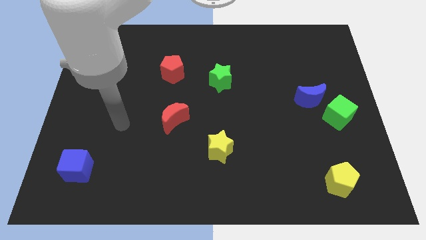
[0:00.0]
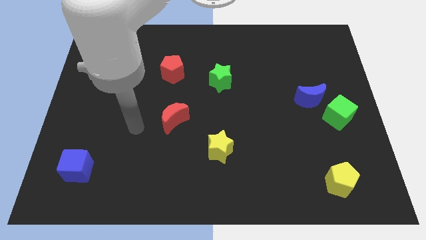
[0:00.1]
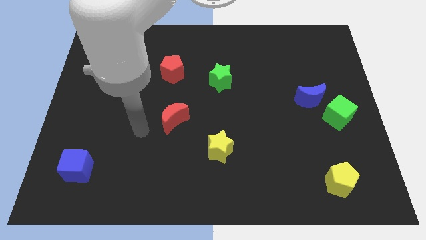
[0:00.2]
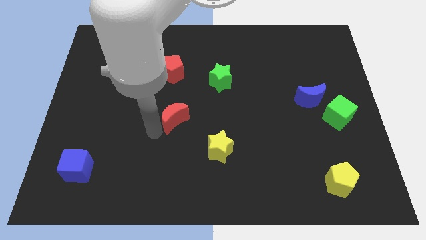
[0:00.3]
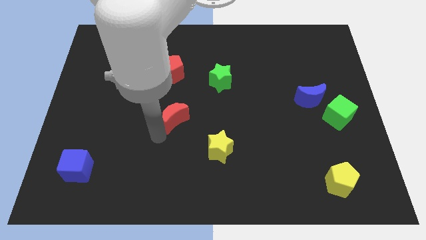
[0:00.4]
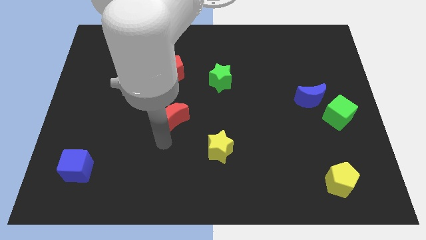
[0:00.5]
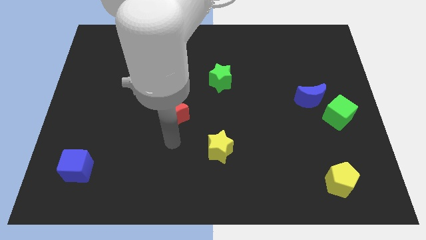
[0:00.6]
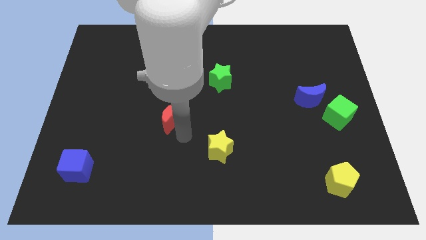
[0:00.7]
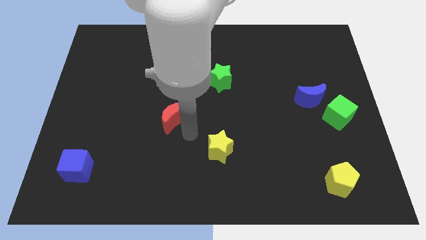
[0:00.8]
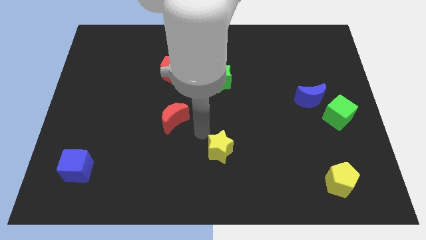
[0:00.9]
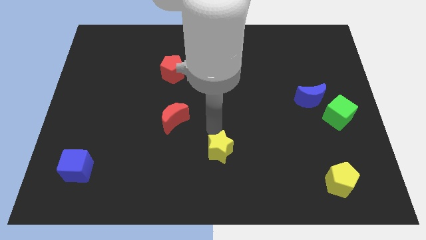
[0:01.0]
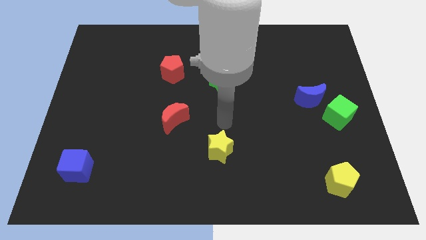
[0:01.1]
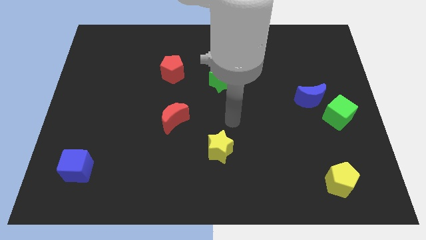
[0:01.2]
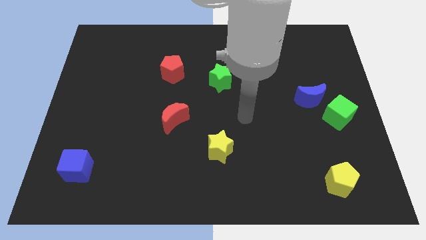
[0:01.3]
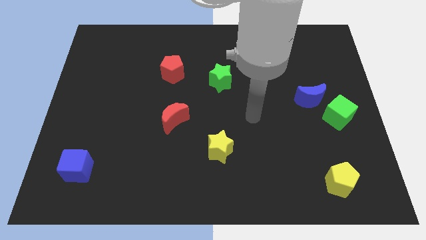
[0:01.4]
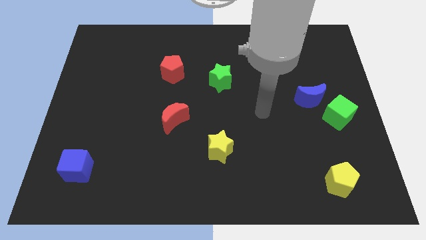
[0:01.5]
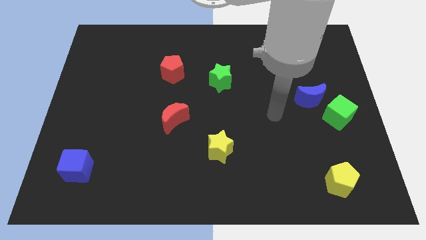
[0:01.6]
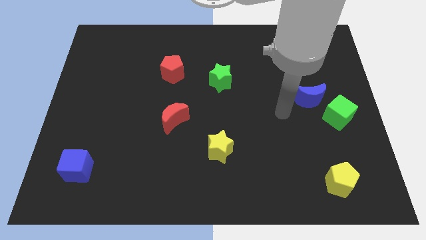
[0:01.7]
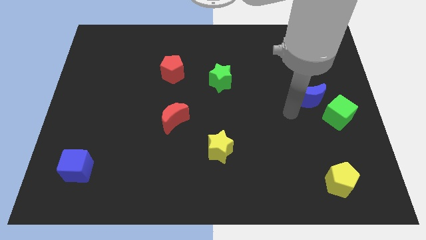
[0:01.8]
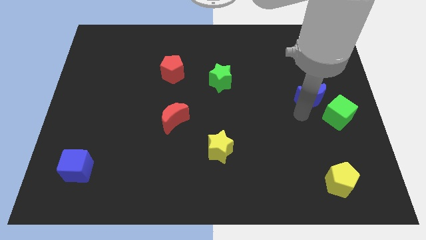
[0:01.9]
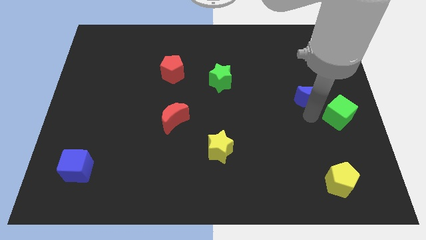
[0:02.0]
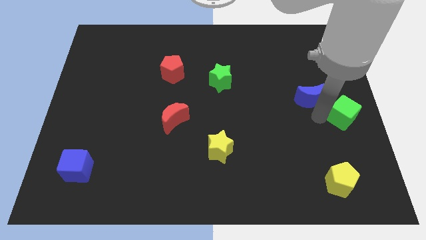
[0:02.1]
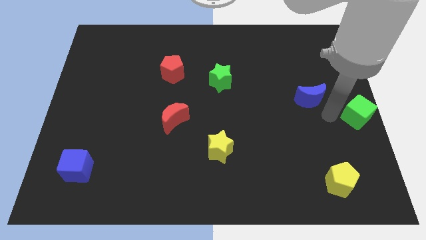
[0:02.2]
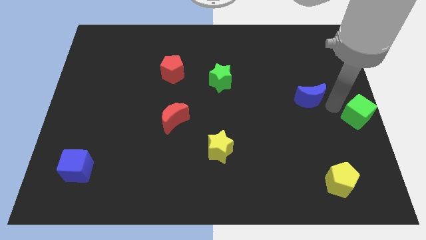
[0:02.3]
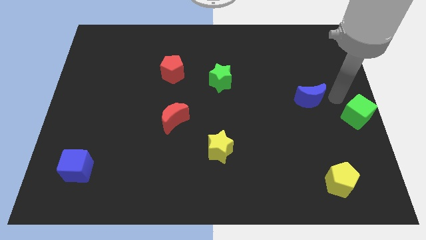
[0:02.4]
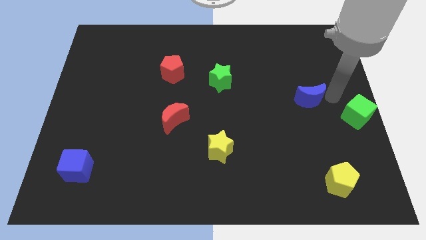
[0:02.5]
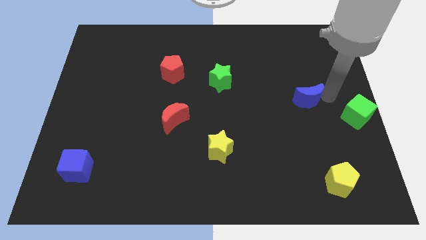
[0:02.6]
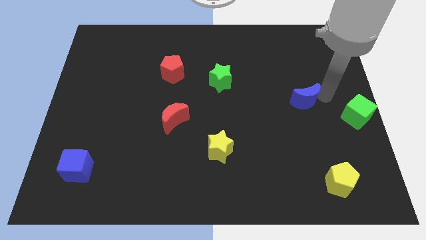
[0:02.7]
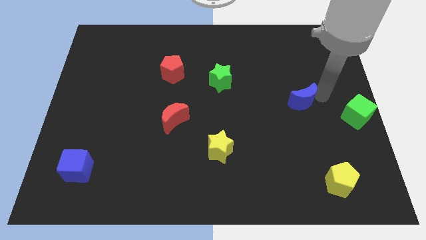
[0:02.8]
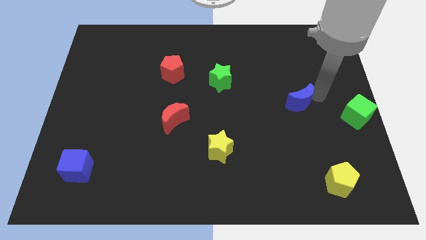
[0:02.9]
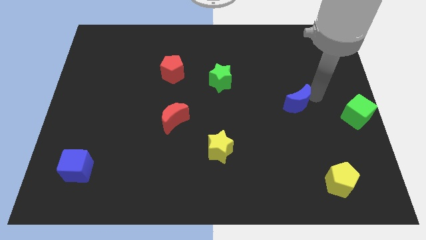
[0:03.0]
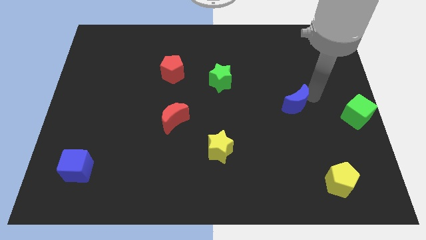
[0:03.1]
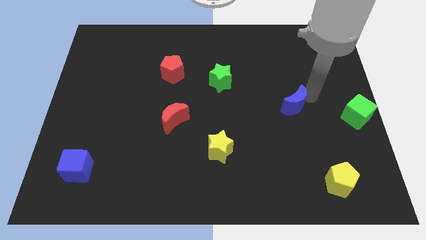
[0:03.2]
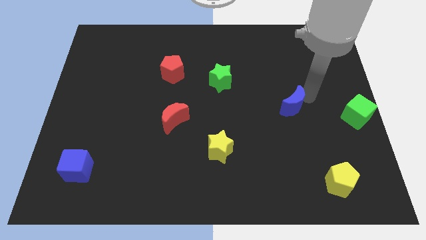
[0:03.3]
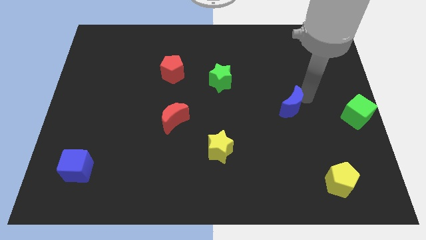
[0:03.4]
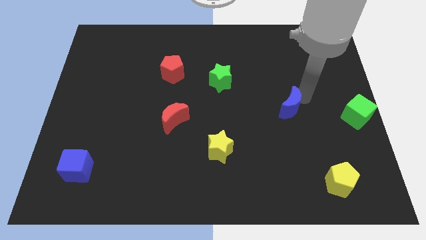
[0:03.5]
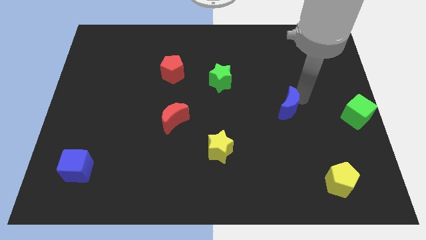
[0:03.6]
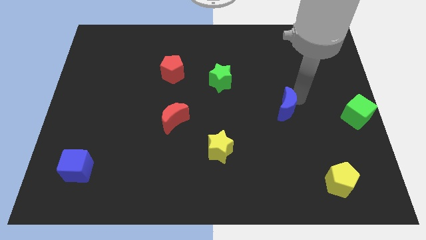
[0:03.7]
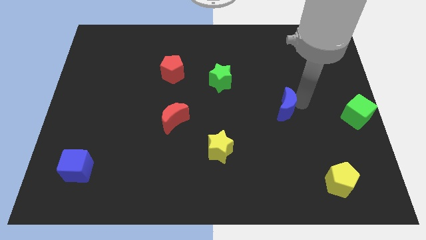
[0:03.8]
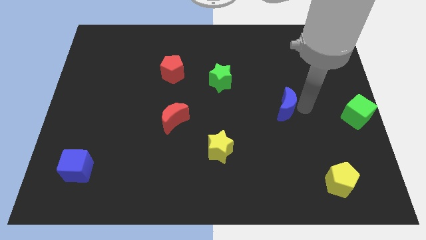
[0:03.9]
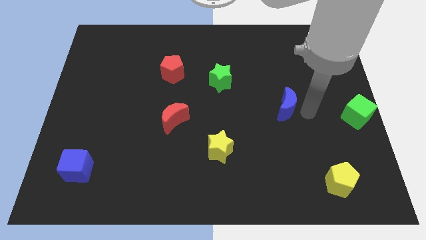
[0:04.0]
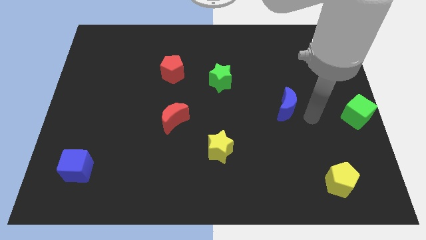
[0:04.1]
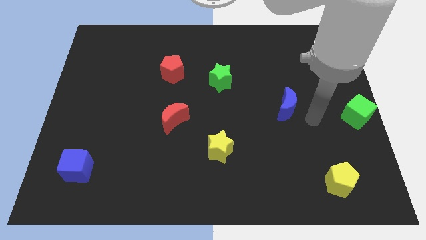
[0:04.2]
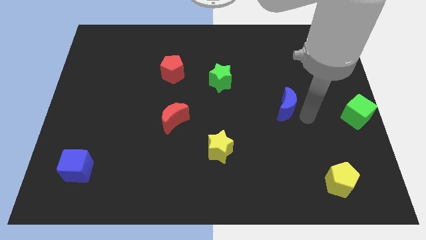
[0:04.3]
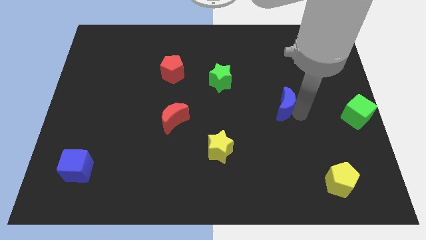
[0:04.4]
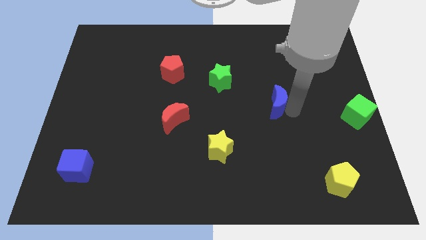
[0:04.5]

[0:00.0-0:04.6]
push the blue moon to the left a little

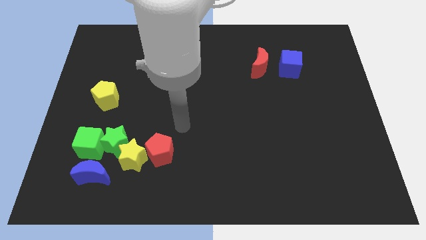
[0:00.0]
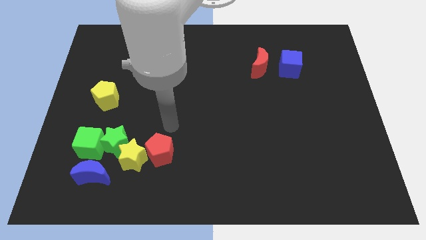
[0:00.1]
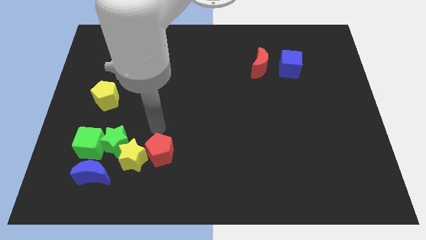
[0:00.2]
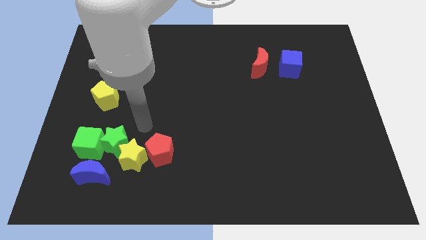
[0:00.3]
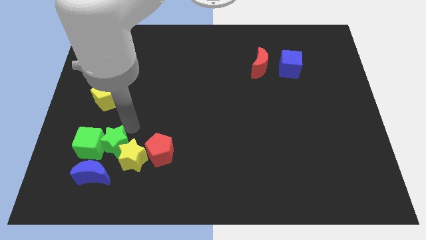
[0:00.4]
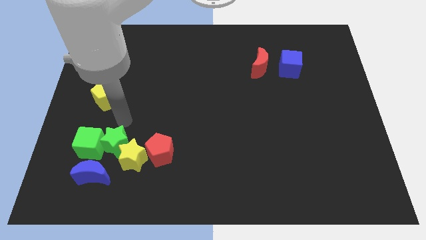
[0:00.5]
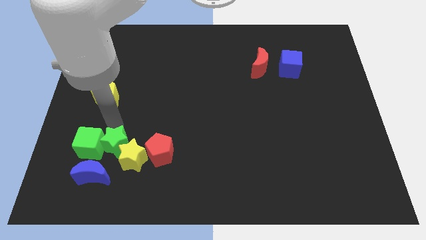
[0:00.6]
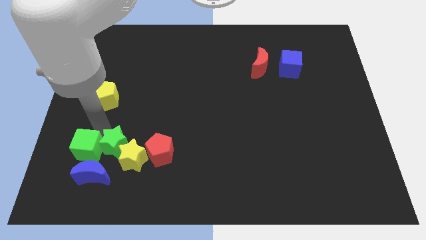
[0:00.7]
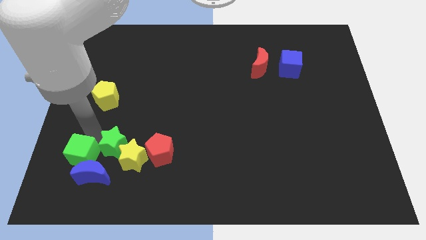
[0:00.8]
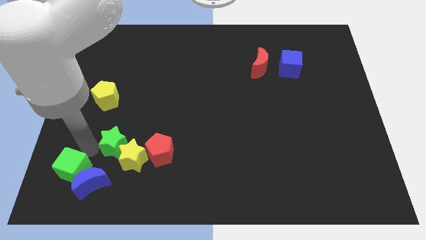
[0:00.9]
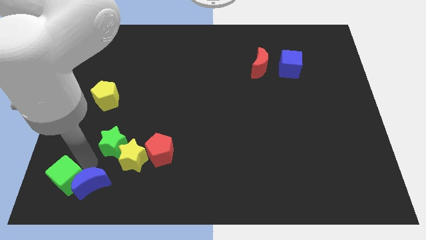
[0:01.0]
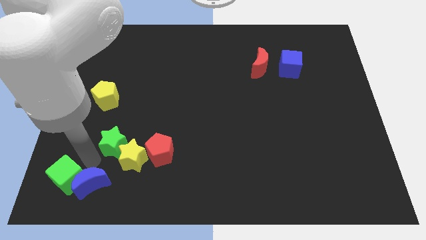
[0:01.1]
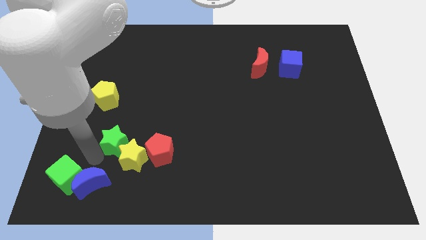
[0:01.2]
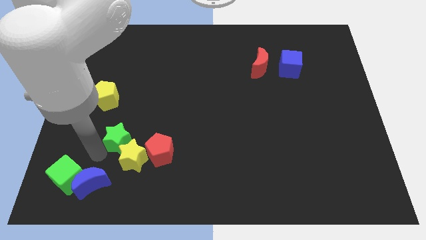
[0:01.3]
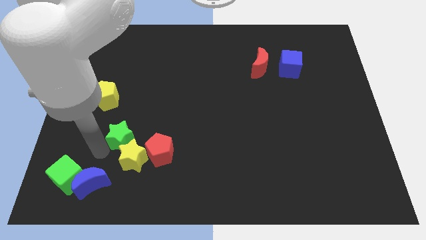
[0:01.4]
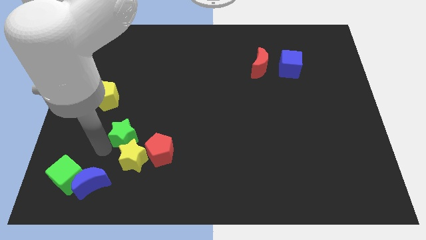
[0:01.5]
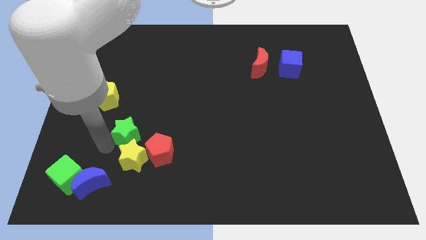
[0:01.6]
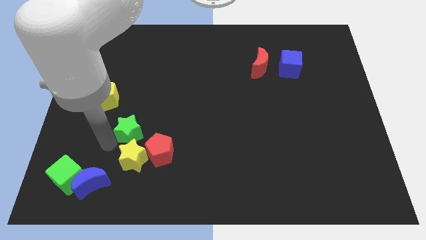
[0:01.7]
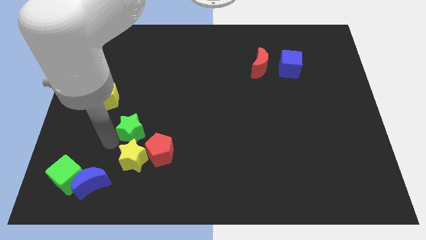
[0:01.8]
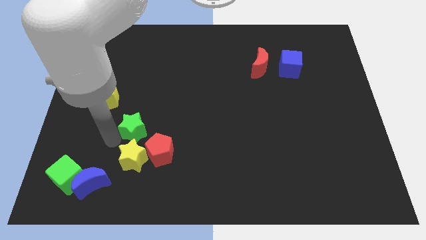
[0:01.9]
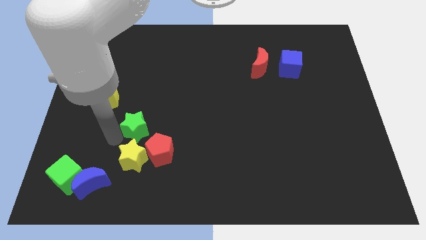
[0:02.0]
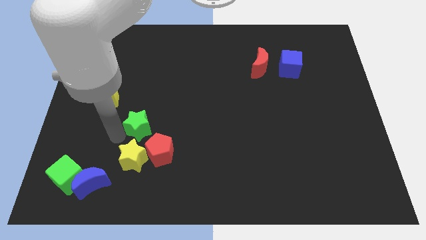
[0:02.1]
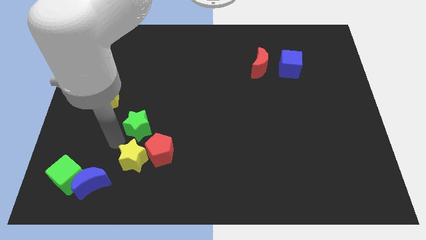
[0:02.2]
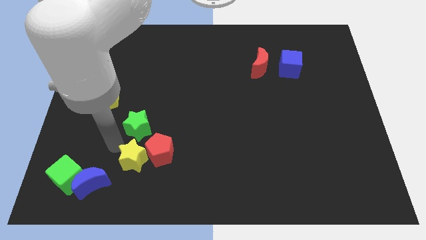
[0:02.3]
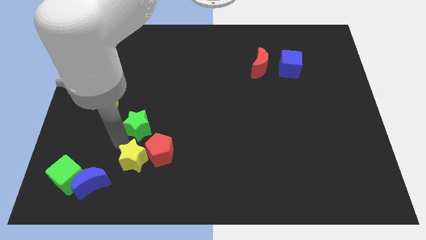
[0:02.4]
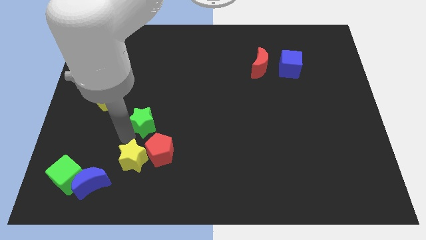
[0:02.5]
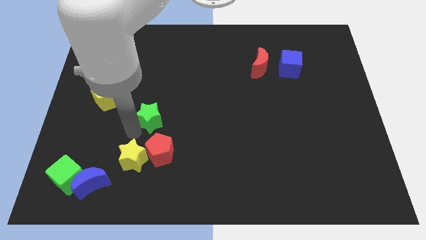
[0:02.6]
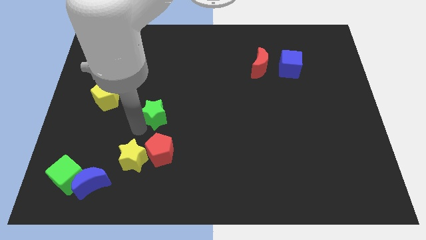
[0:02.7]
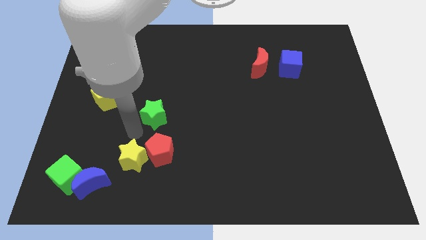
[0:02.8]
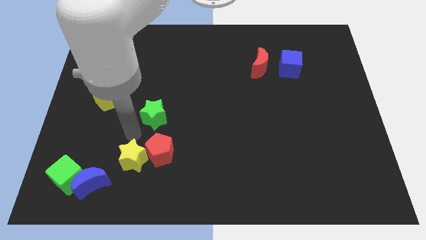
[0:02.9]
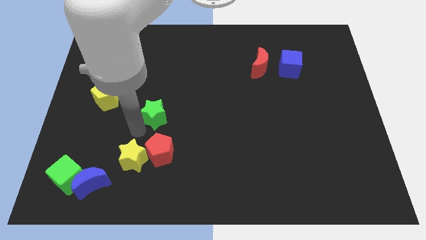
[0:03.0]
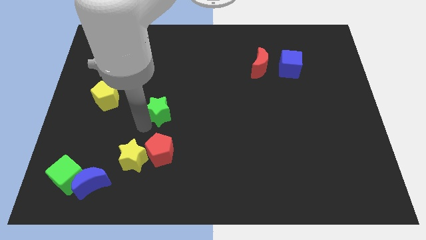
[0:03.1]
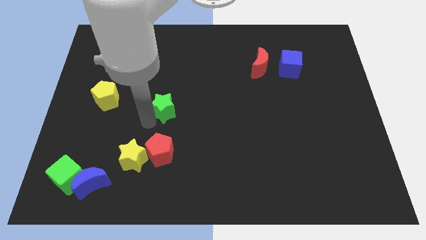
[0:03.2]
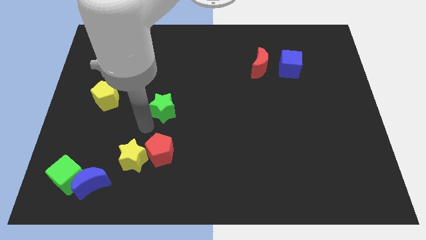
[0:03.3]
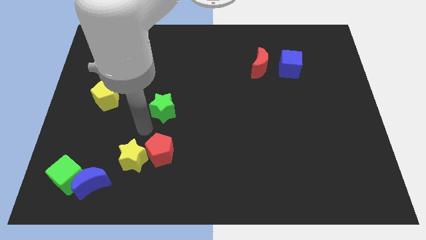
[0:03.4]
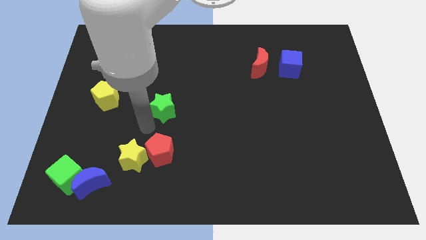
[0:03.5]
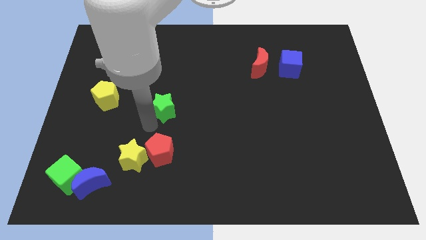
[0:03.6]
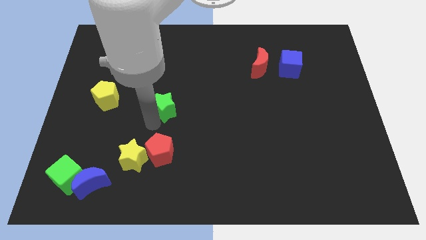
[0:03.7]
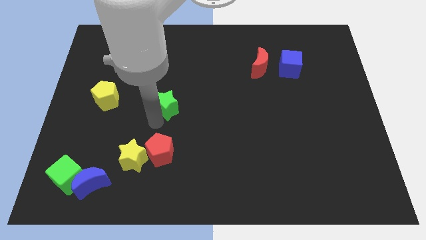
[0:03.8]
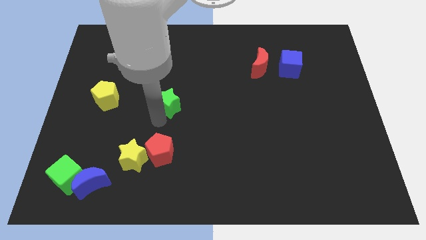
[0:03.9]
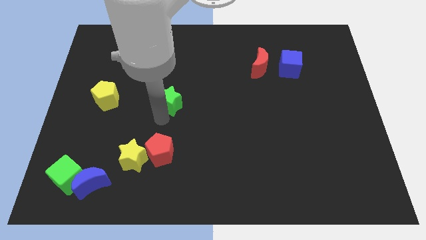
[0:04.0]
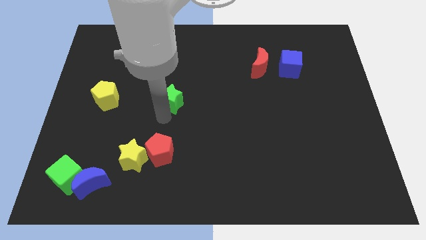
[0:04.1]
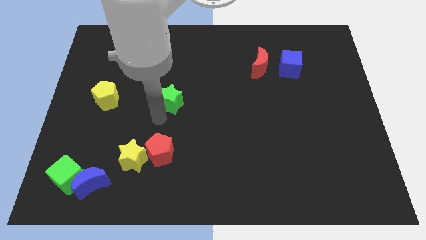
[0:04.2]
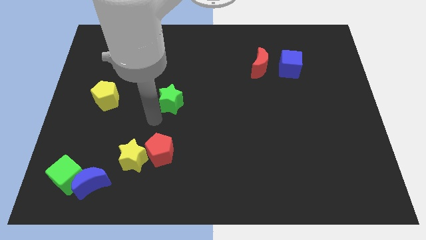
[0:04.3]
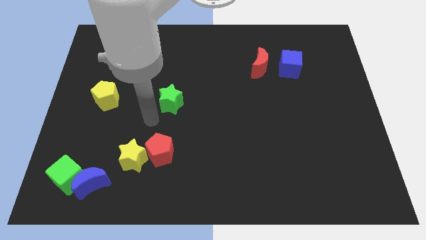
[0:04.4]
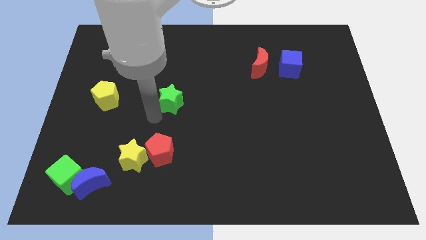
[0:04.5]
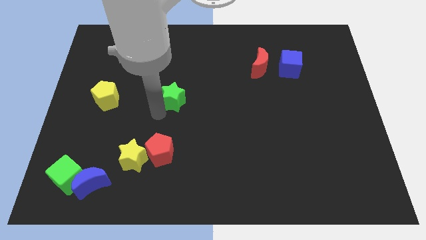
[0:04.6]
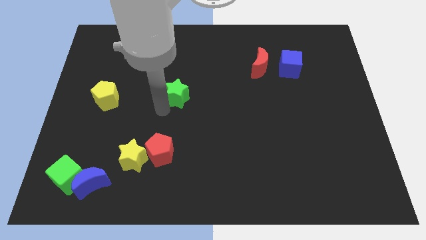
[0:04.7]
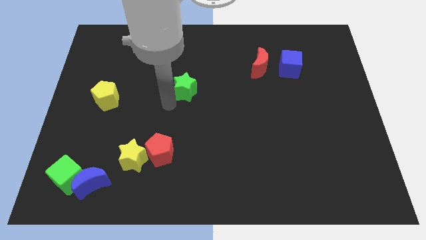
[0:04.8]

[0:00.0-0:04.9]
slide the green star up and to the right diagonally
